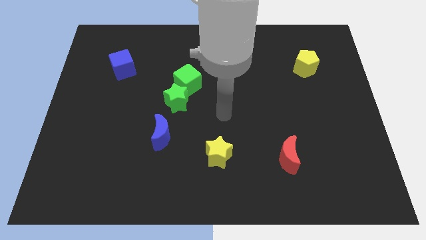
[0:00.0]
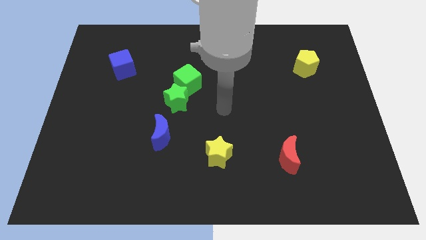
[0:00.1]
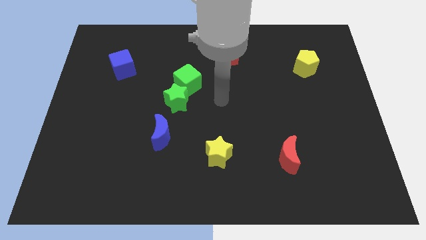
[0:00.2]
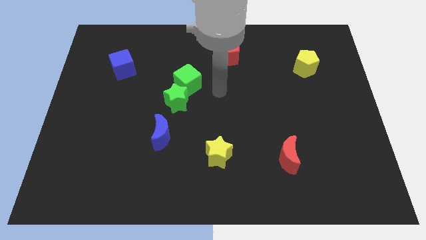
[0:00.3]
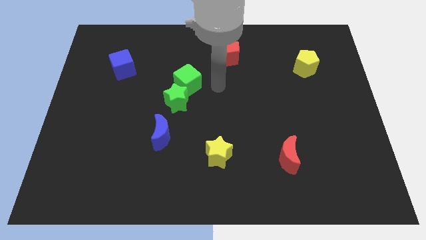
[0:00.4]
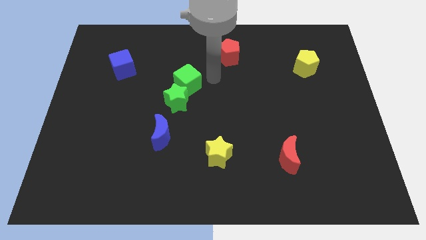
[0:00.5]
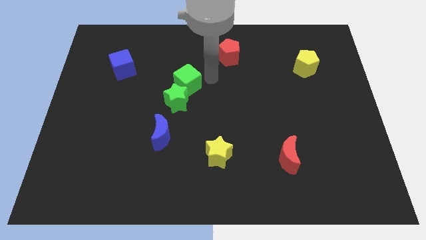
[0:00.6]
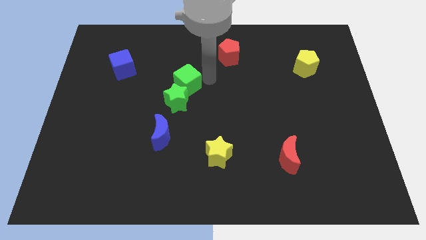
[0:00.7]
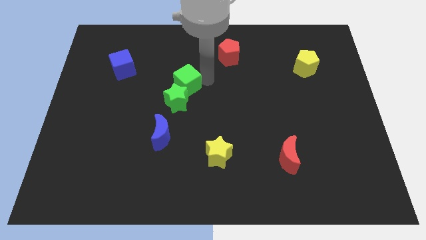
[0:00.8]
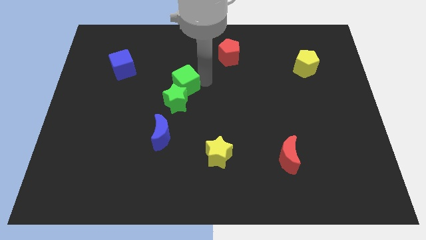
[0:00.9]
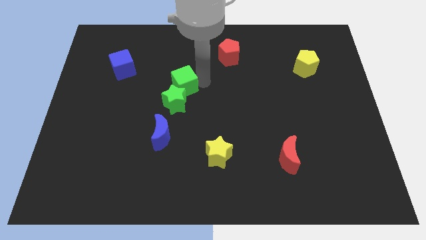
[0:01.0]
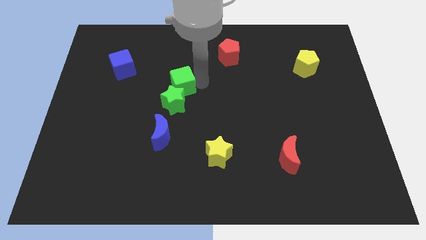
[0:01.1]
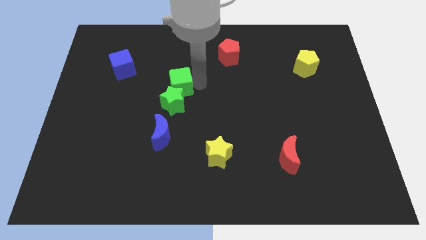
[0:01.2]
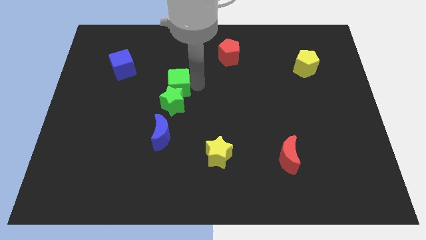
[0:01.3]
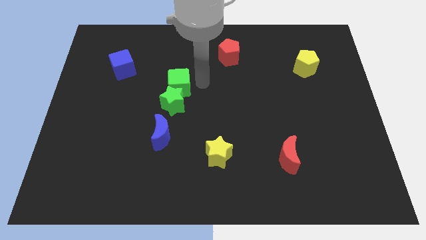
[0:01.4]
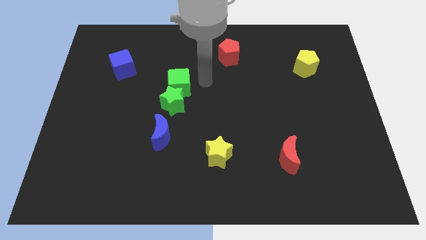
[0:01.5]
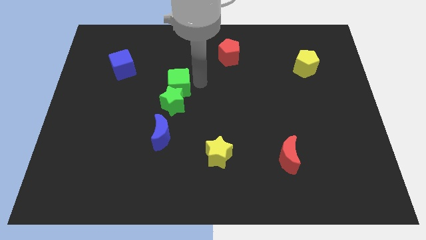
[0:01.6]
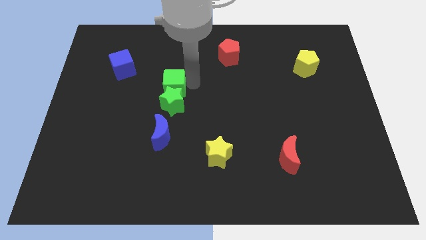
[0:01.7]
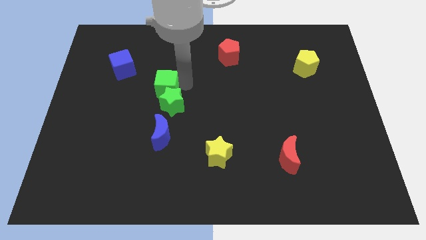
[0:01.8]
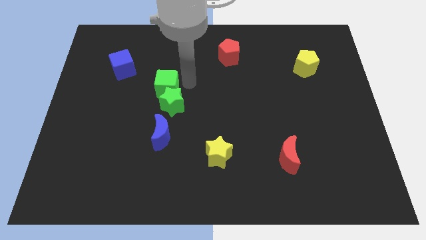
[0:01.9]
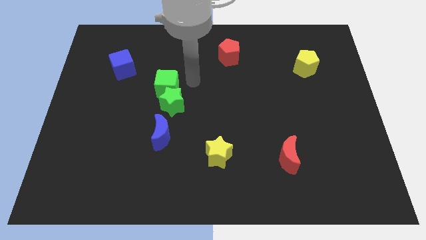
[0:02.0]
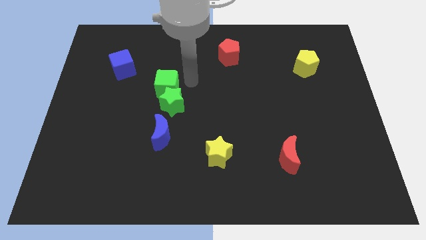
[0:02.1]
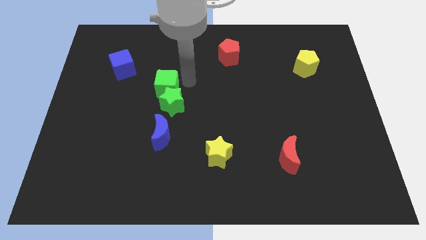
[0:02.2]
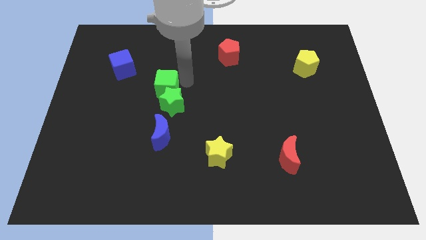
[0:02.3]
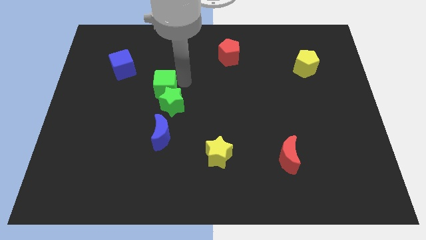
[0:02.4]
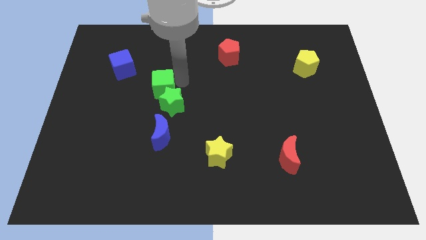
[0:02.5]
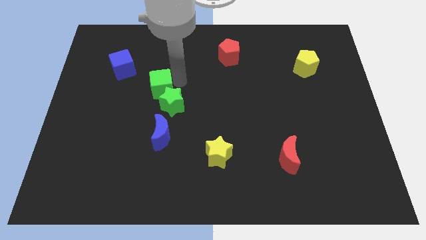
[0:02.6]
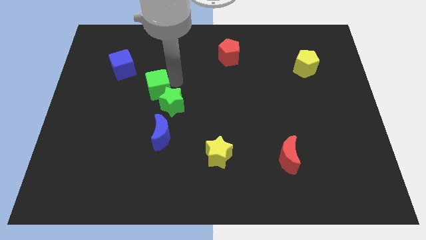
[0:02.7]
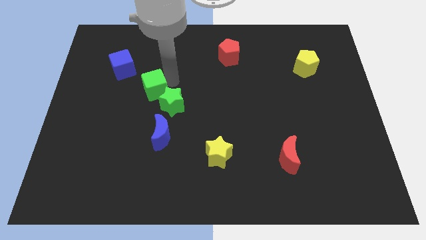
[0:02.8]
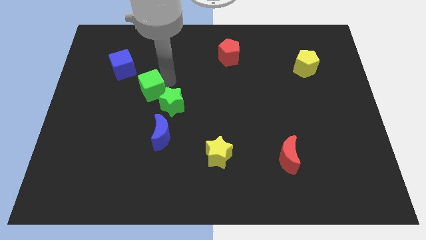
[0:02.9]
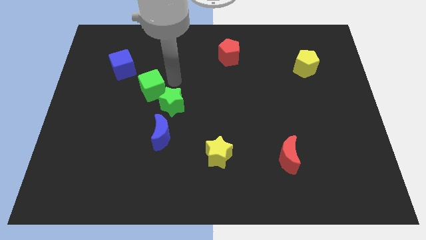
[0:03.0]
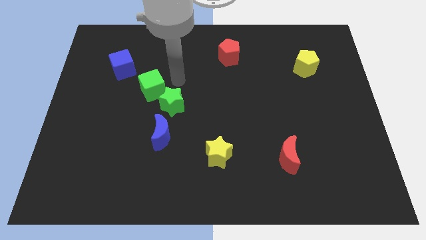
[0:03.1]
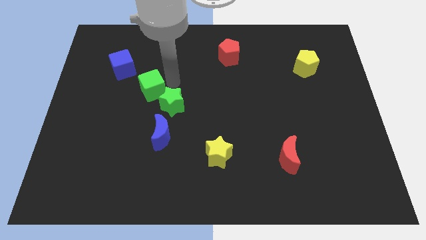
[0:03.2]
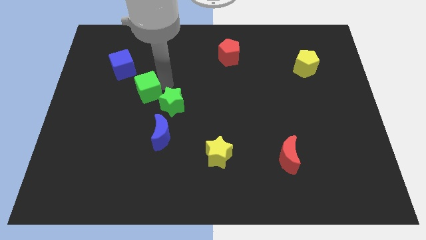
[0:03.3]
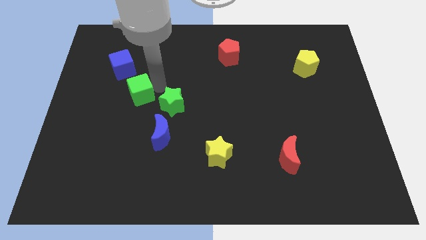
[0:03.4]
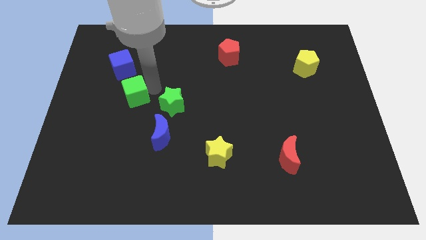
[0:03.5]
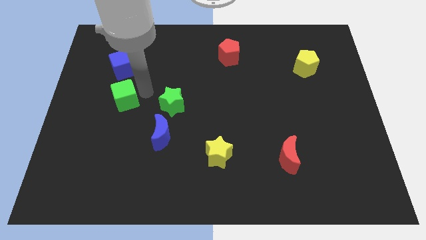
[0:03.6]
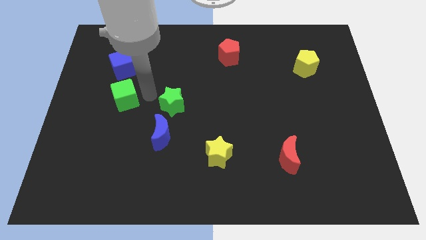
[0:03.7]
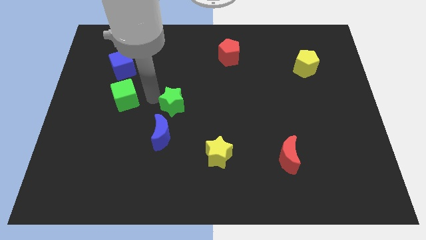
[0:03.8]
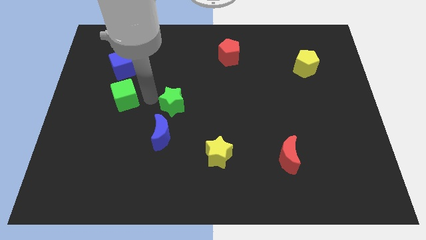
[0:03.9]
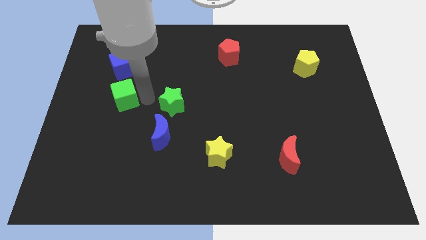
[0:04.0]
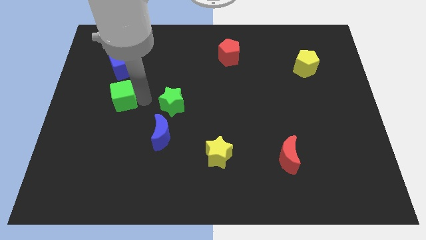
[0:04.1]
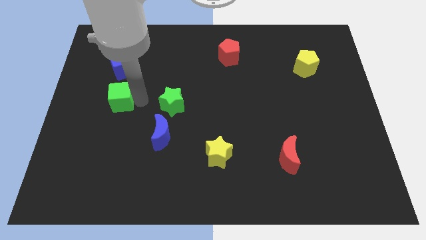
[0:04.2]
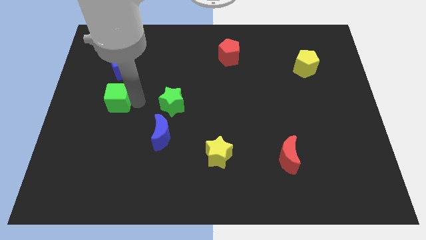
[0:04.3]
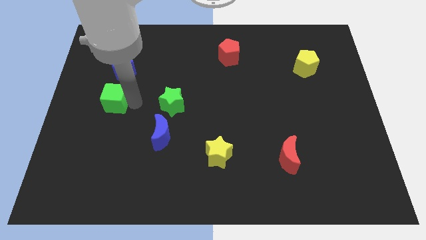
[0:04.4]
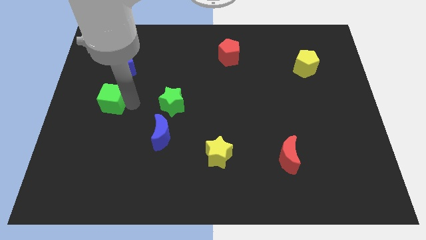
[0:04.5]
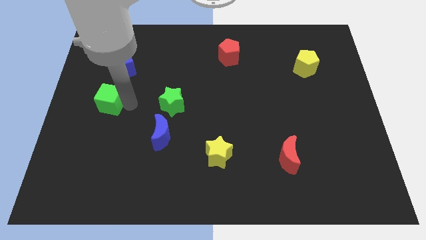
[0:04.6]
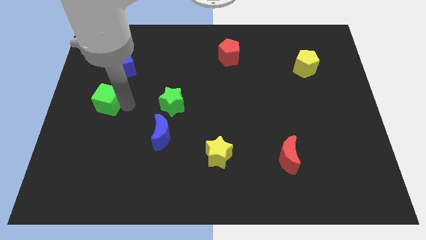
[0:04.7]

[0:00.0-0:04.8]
move the green cube to the left side

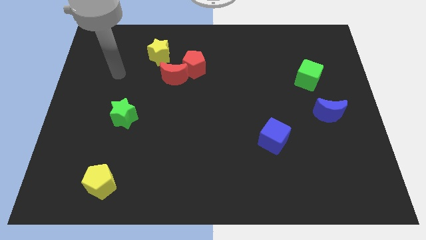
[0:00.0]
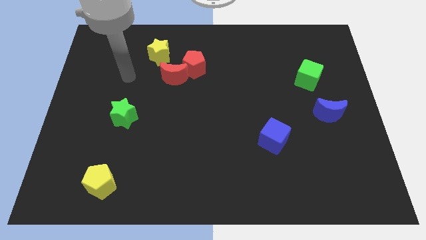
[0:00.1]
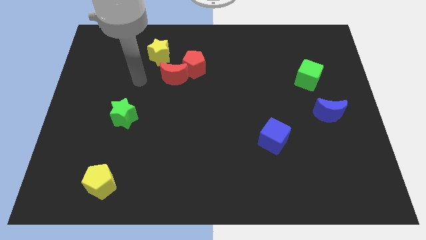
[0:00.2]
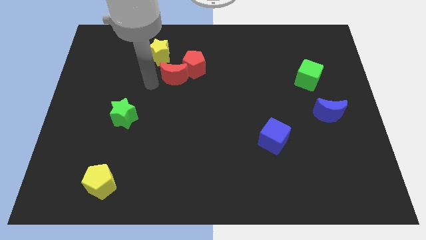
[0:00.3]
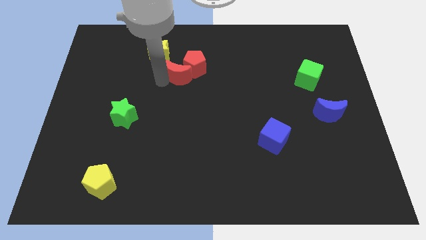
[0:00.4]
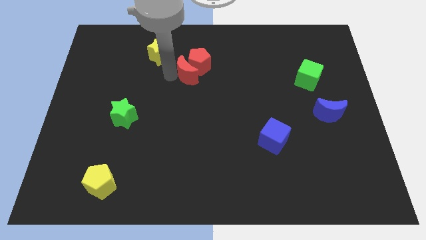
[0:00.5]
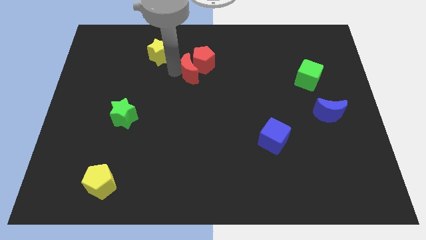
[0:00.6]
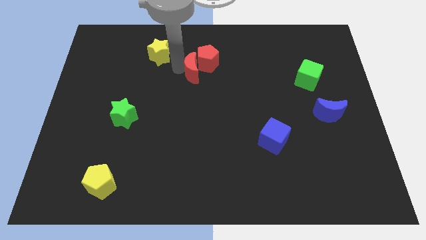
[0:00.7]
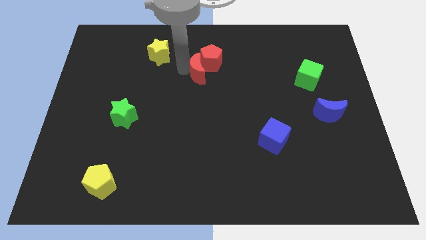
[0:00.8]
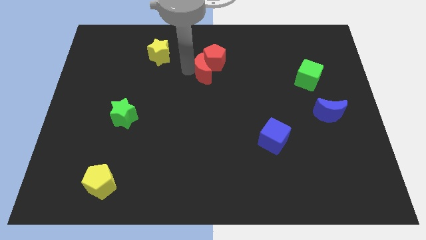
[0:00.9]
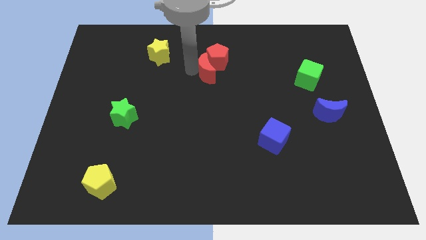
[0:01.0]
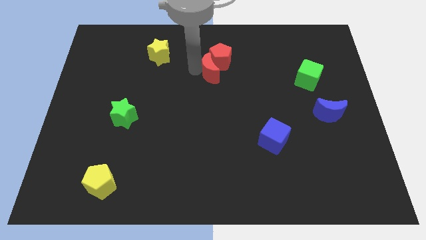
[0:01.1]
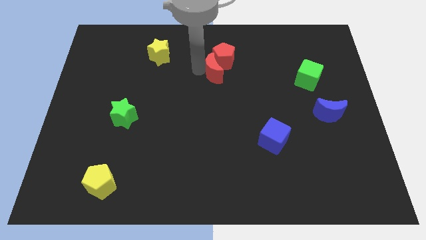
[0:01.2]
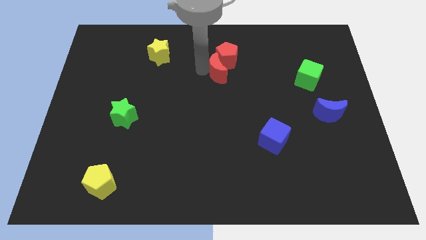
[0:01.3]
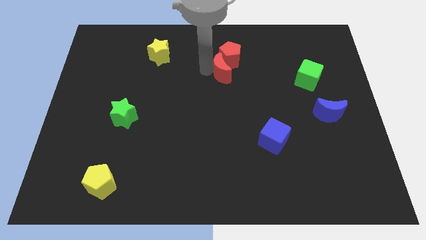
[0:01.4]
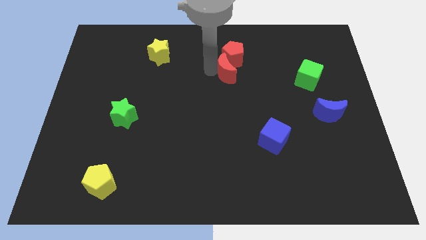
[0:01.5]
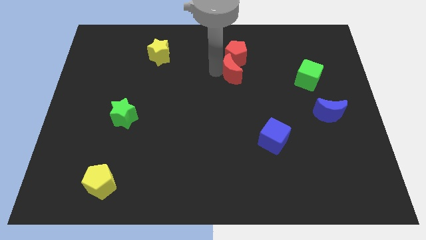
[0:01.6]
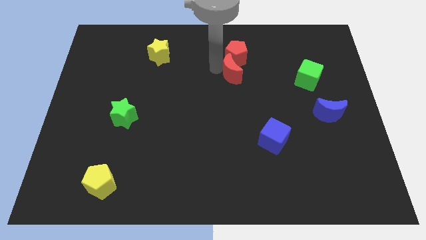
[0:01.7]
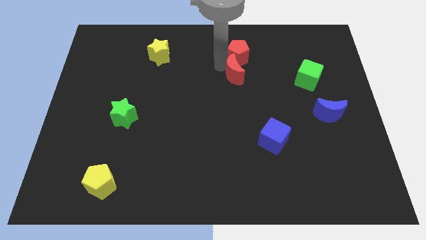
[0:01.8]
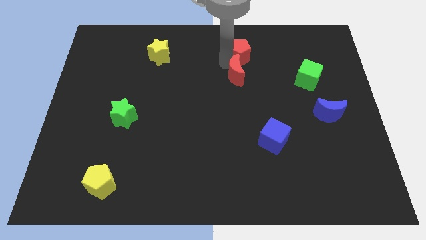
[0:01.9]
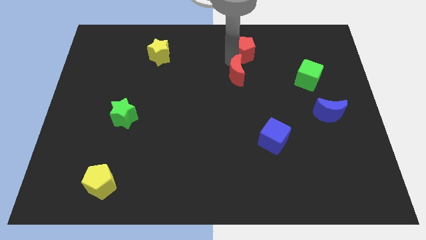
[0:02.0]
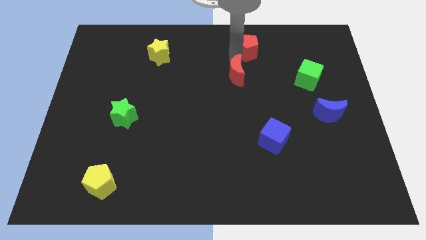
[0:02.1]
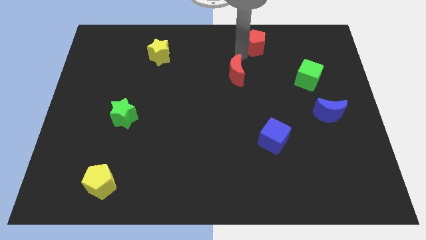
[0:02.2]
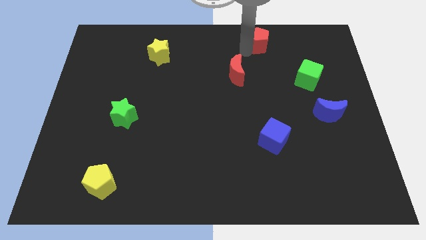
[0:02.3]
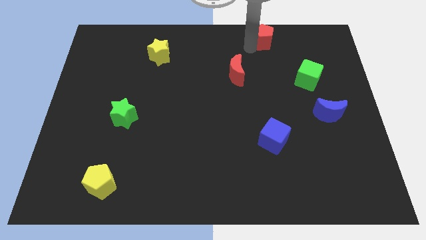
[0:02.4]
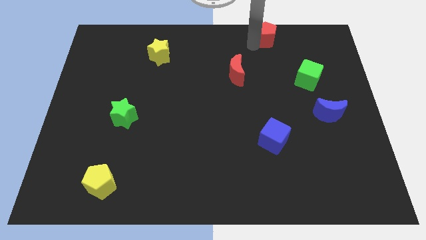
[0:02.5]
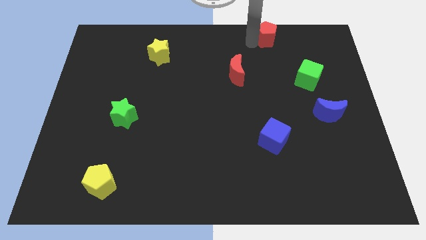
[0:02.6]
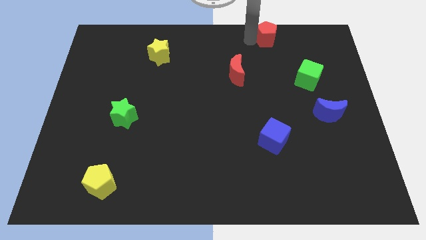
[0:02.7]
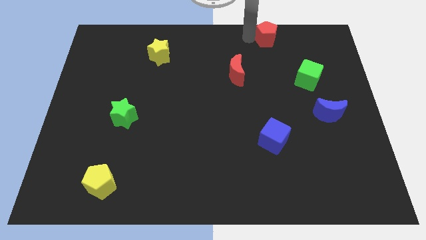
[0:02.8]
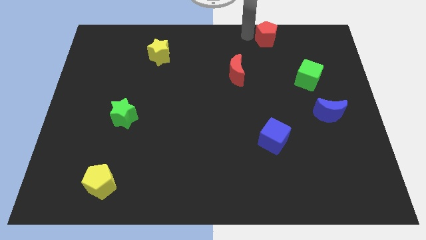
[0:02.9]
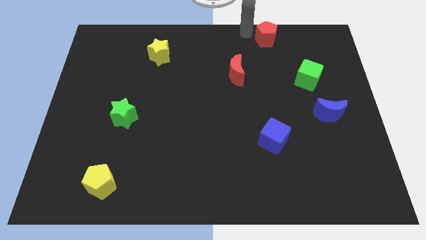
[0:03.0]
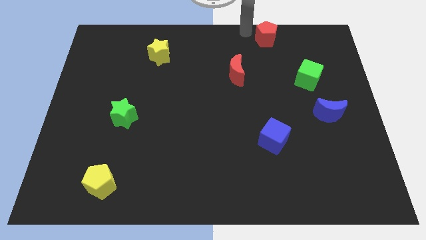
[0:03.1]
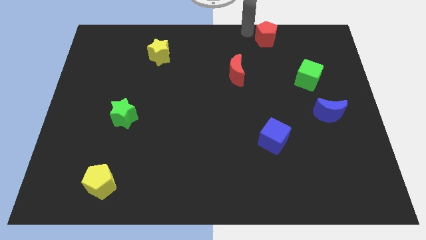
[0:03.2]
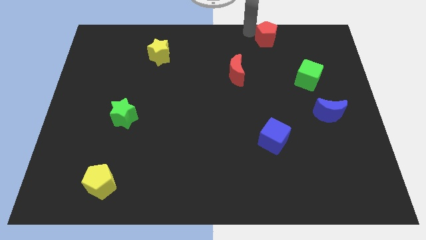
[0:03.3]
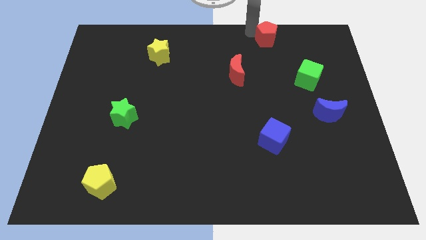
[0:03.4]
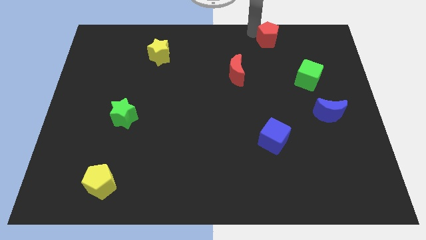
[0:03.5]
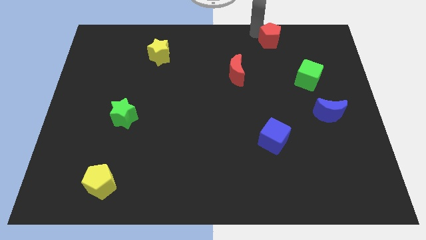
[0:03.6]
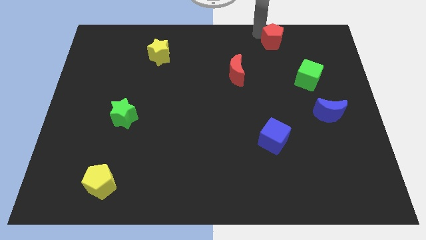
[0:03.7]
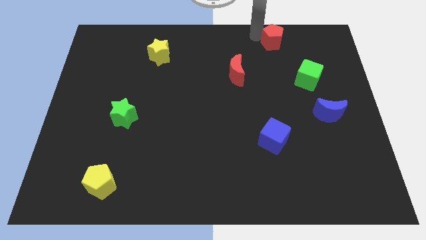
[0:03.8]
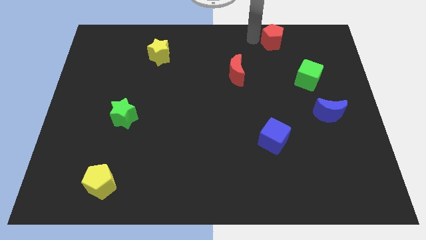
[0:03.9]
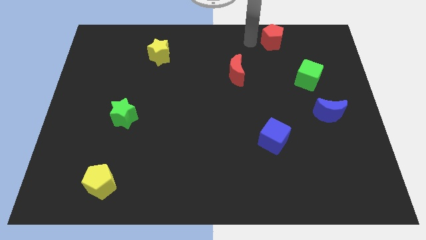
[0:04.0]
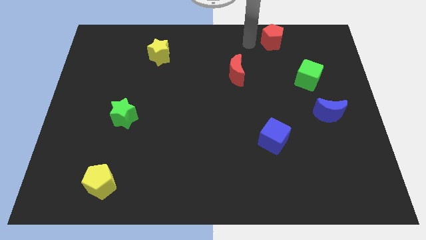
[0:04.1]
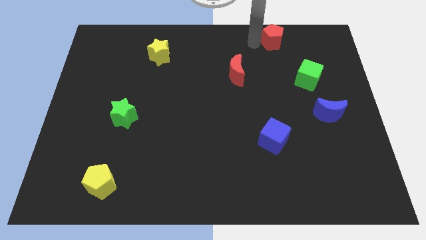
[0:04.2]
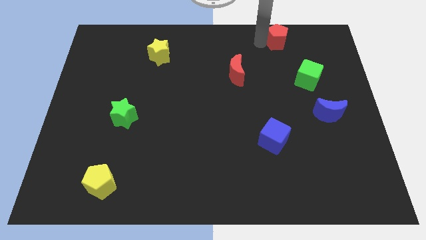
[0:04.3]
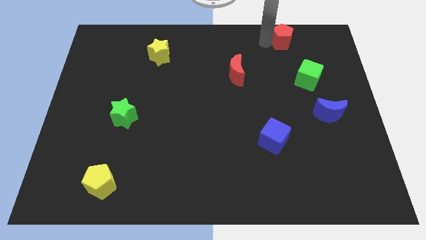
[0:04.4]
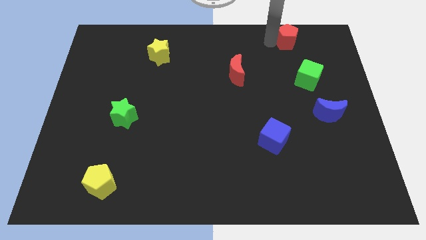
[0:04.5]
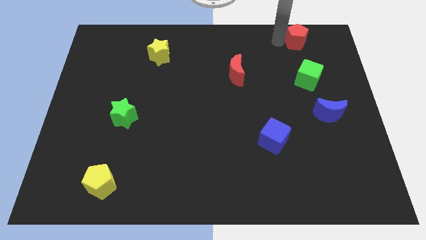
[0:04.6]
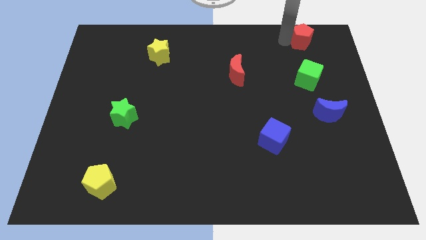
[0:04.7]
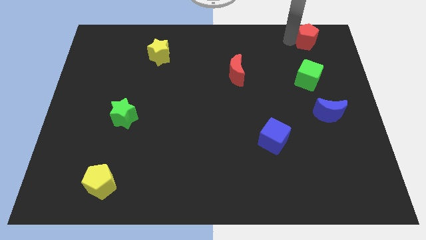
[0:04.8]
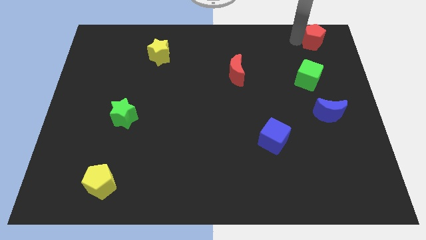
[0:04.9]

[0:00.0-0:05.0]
push the red pentagon to the top right
